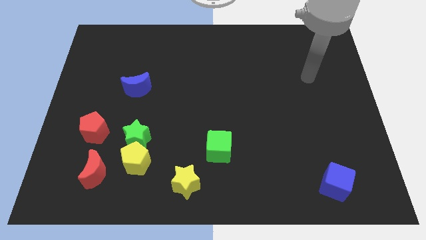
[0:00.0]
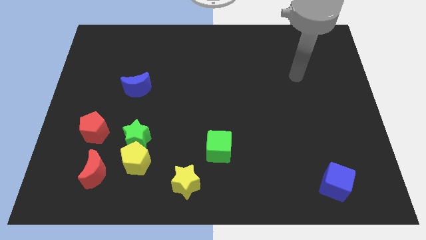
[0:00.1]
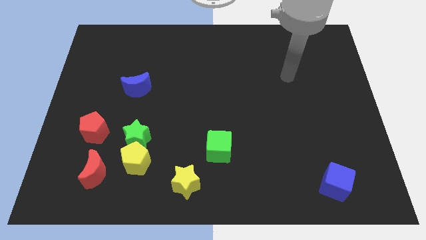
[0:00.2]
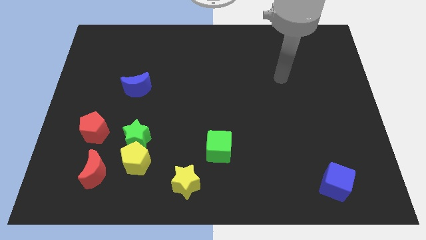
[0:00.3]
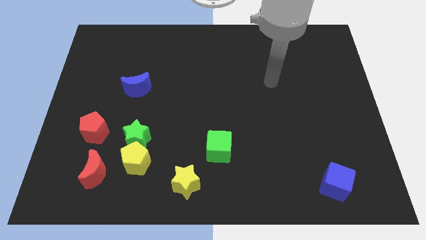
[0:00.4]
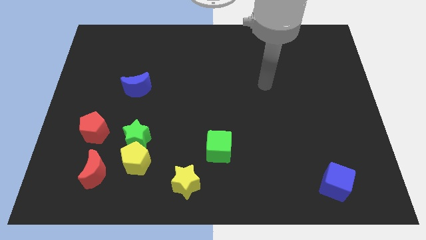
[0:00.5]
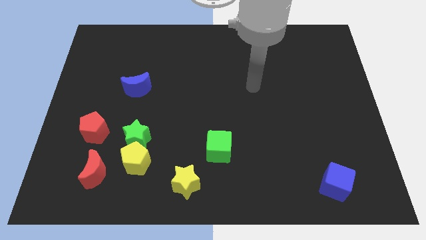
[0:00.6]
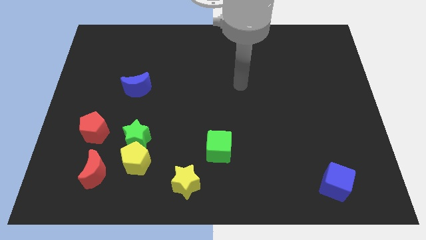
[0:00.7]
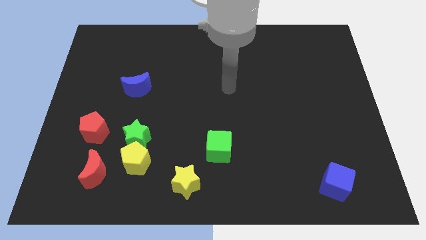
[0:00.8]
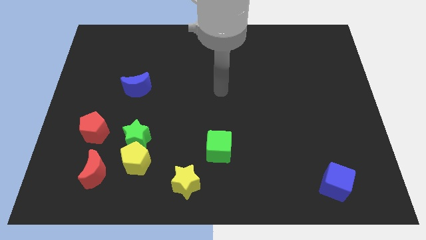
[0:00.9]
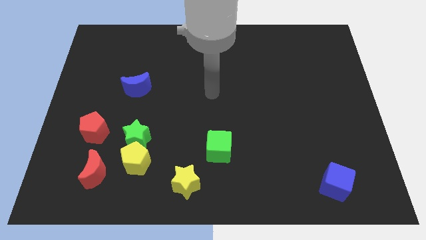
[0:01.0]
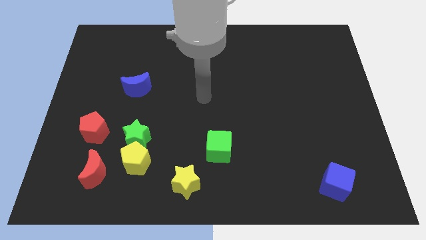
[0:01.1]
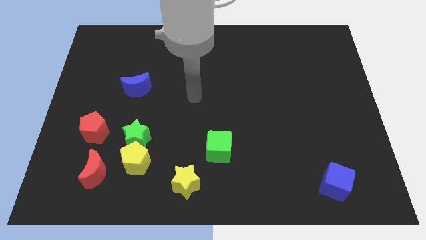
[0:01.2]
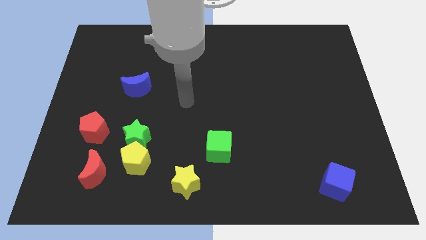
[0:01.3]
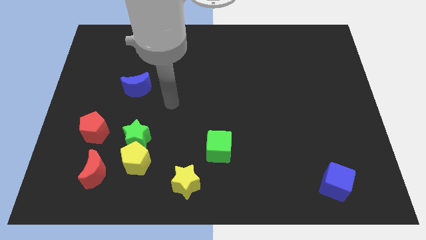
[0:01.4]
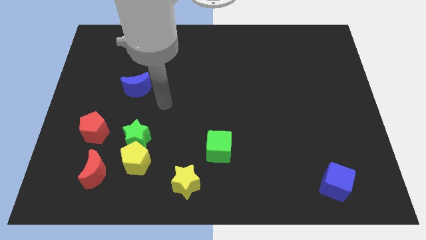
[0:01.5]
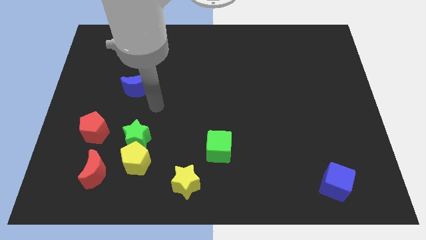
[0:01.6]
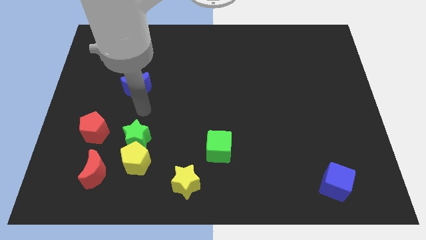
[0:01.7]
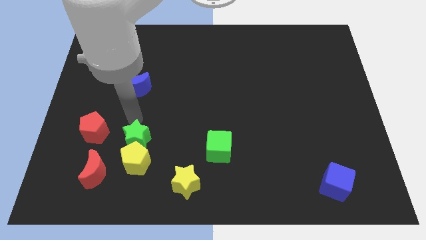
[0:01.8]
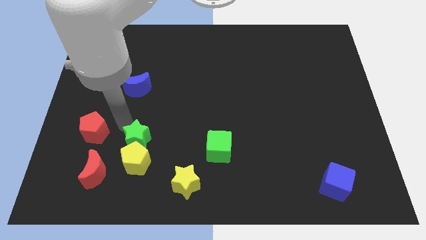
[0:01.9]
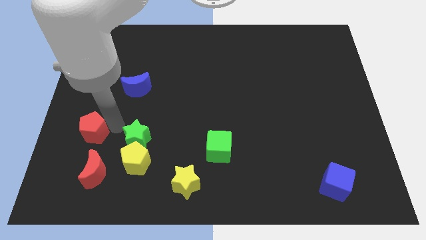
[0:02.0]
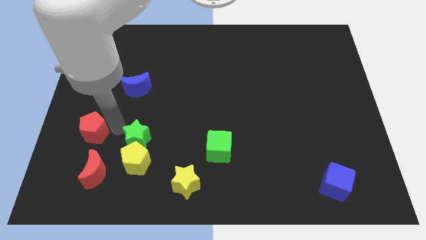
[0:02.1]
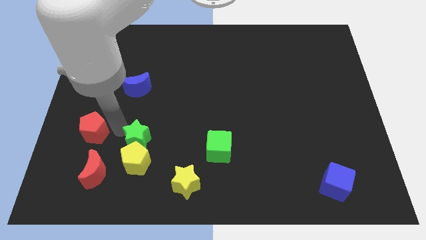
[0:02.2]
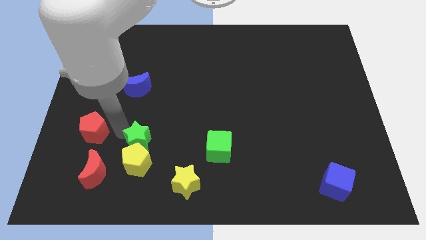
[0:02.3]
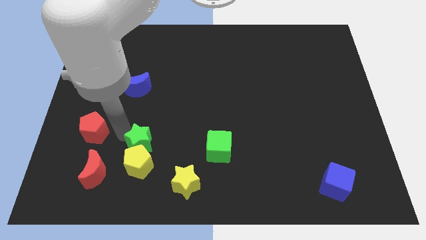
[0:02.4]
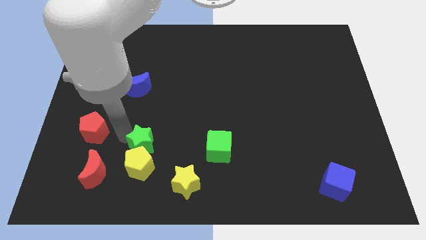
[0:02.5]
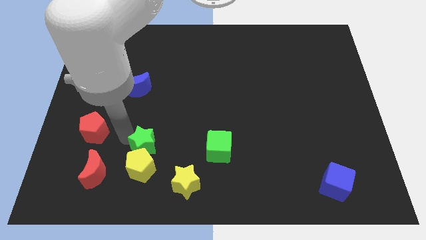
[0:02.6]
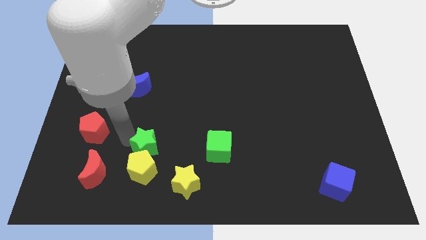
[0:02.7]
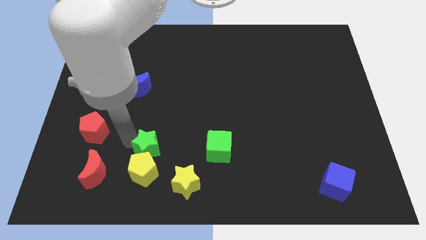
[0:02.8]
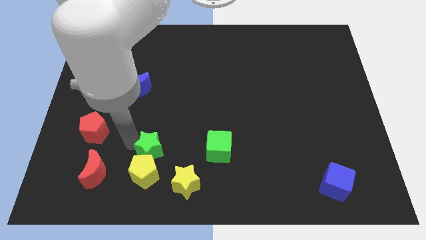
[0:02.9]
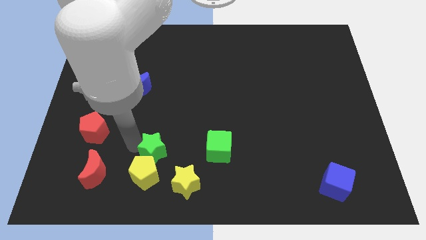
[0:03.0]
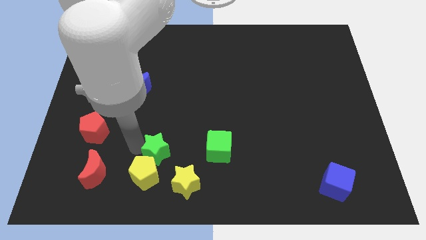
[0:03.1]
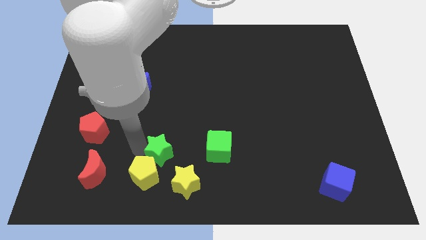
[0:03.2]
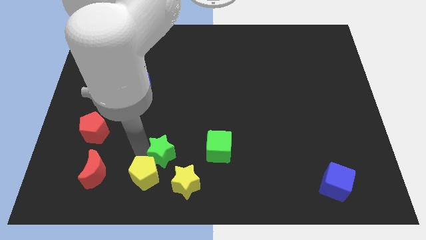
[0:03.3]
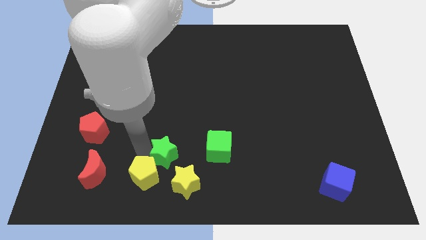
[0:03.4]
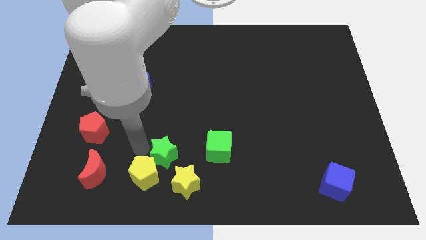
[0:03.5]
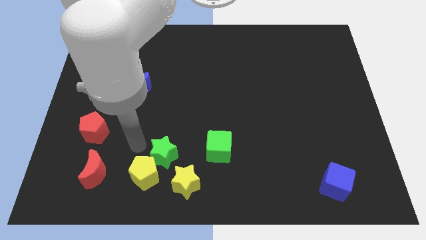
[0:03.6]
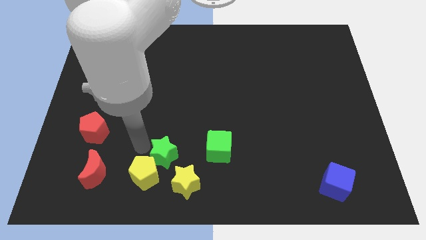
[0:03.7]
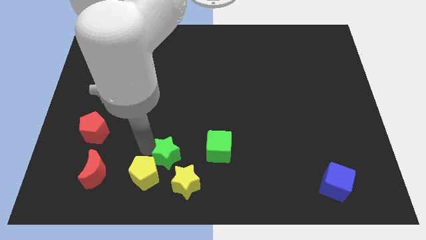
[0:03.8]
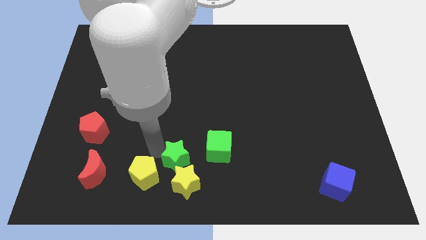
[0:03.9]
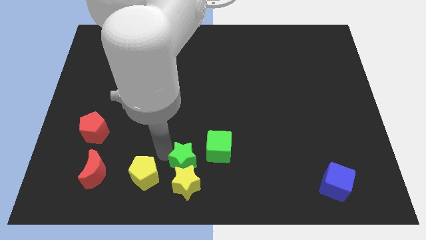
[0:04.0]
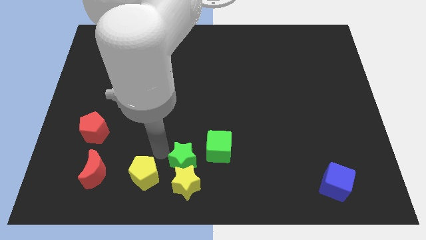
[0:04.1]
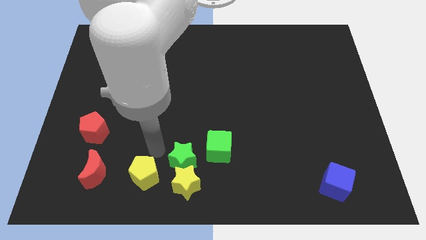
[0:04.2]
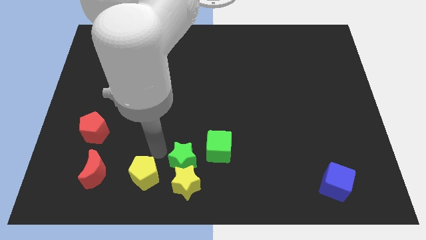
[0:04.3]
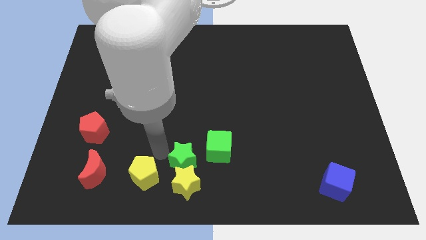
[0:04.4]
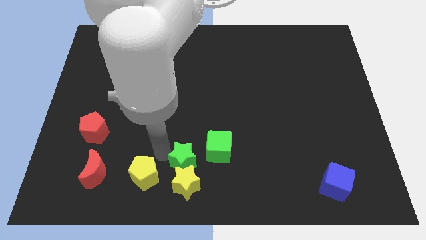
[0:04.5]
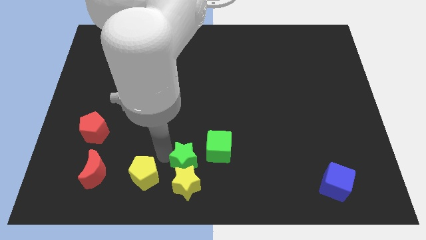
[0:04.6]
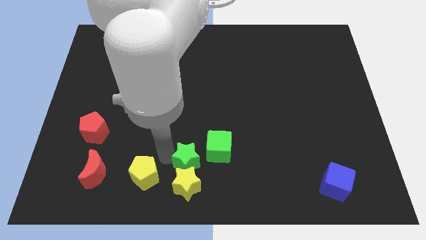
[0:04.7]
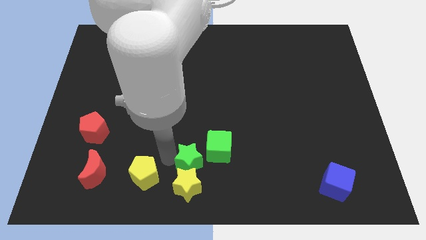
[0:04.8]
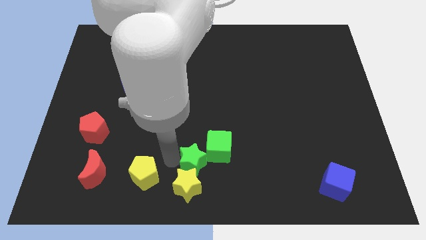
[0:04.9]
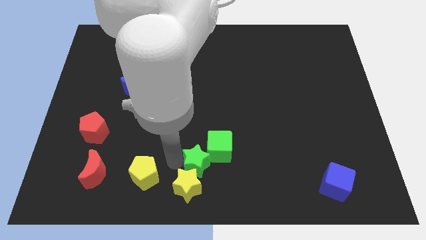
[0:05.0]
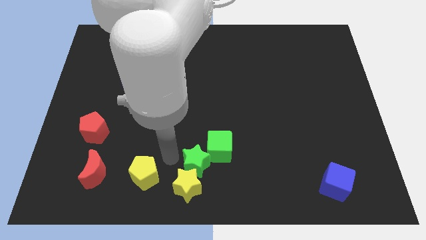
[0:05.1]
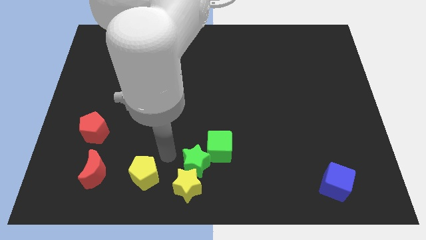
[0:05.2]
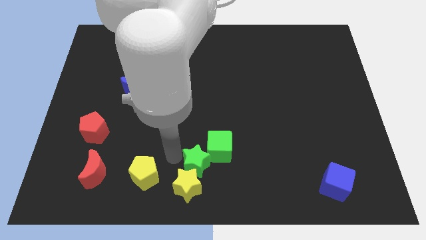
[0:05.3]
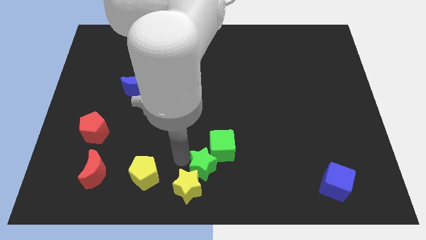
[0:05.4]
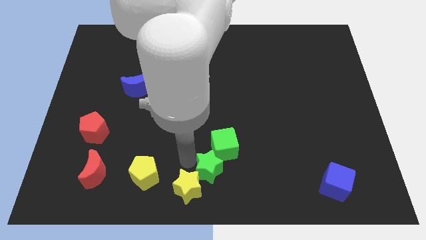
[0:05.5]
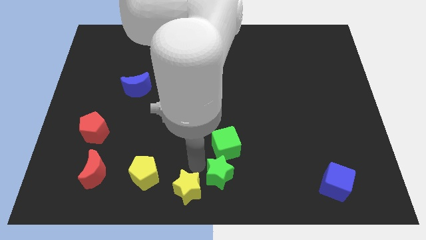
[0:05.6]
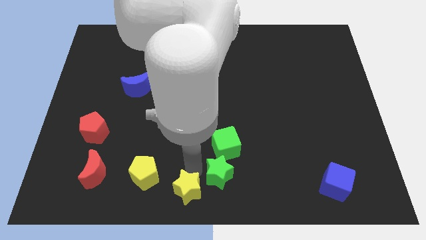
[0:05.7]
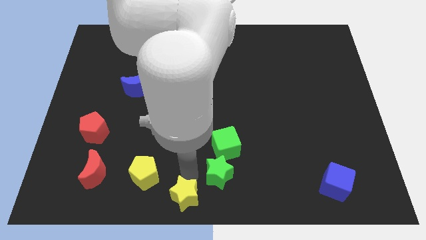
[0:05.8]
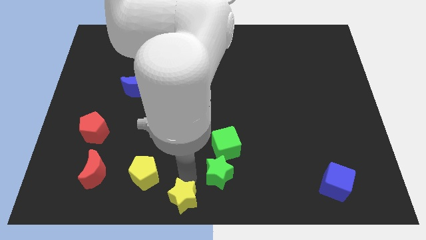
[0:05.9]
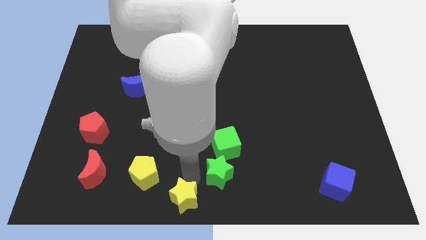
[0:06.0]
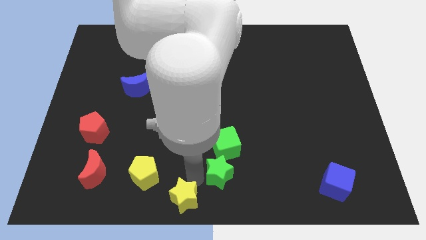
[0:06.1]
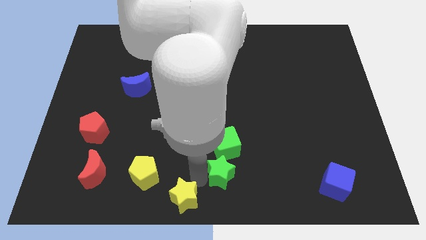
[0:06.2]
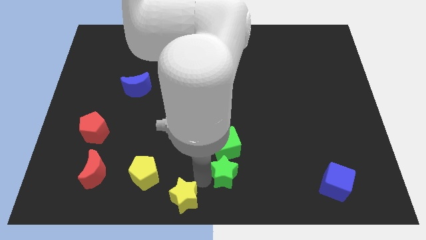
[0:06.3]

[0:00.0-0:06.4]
move the green star diagonally down and to the right of the green cube

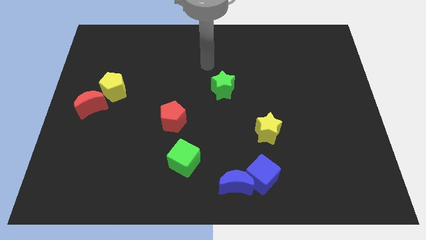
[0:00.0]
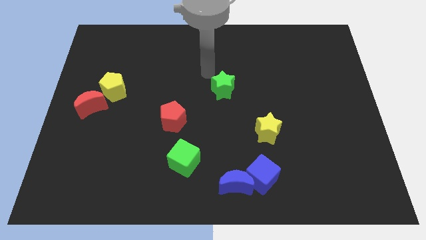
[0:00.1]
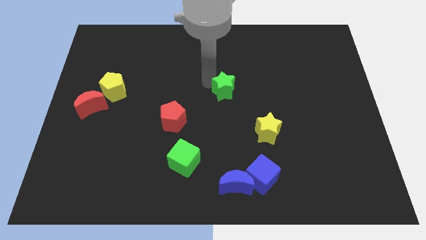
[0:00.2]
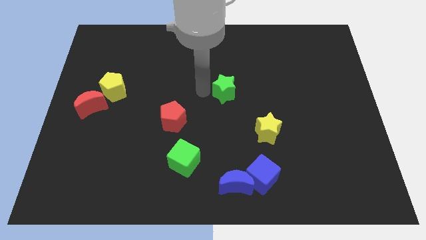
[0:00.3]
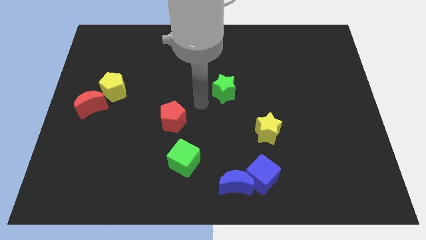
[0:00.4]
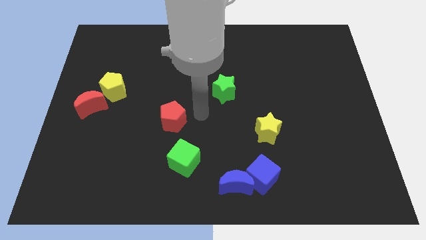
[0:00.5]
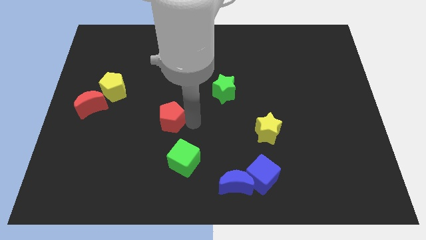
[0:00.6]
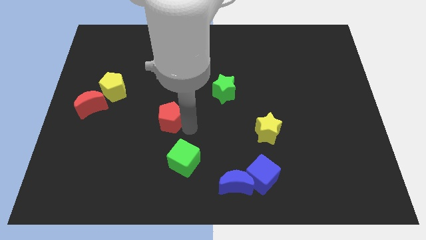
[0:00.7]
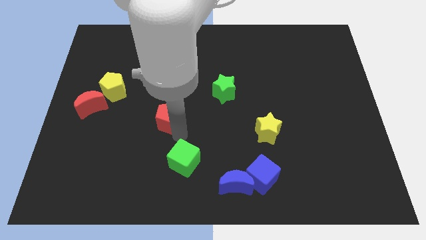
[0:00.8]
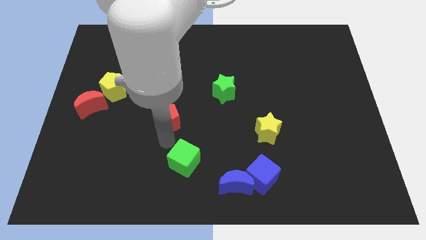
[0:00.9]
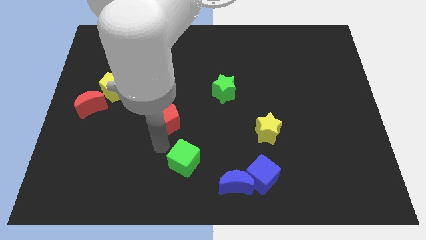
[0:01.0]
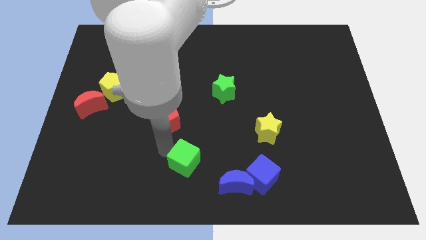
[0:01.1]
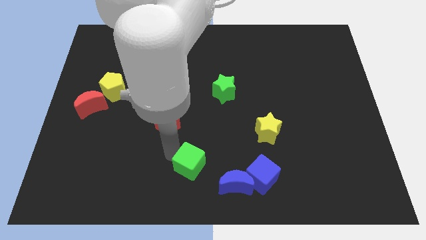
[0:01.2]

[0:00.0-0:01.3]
push the green cube just left of the blue cube
